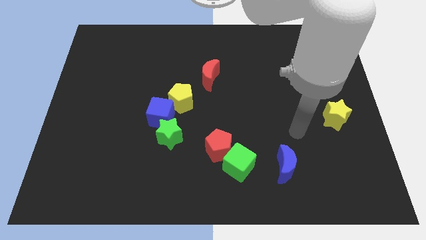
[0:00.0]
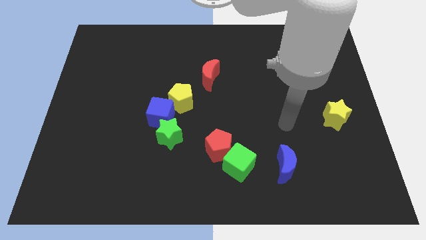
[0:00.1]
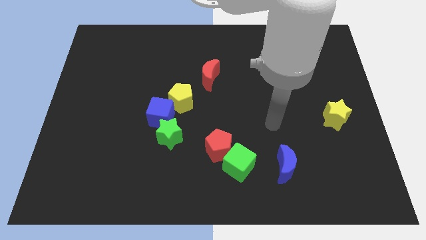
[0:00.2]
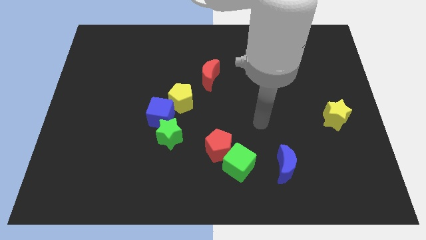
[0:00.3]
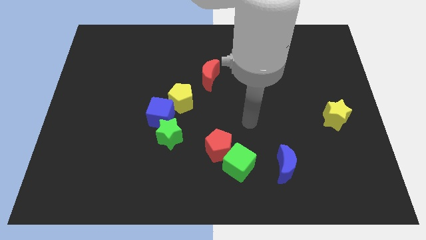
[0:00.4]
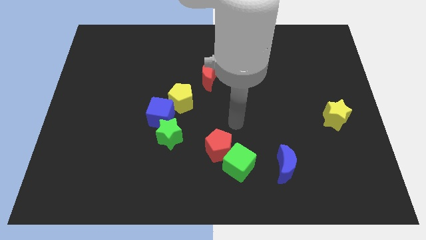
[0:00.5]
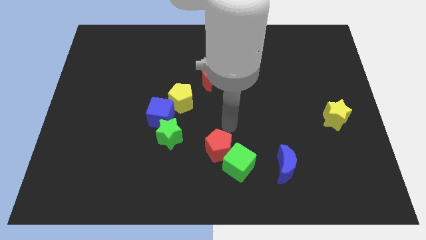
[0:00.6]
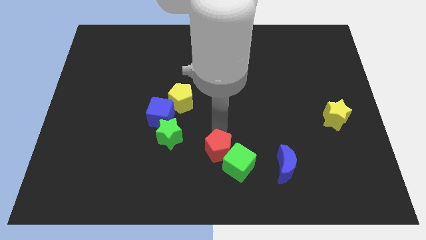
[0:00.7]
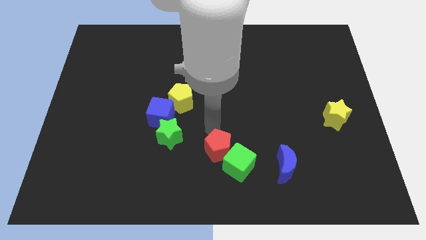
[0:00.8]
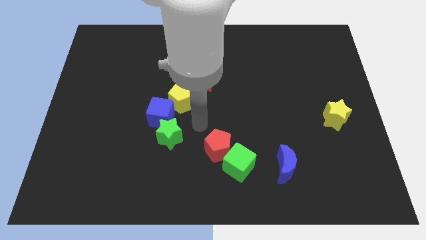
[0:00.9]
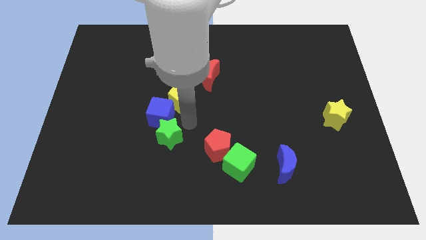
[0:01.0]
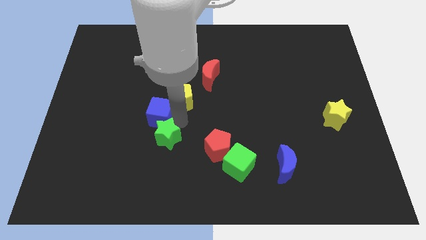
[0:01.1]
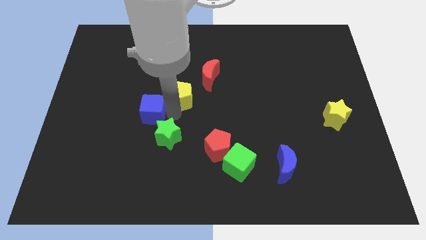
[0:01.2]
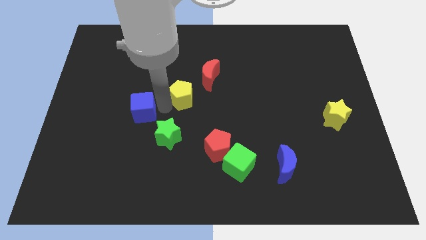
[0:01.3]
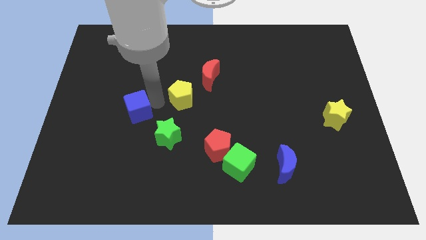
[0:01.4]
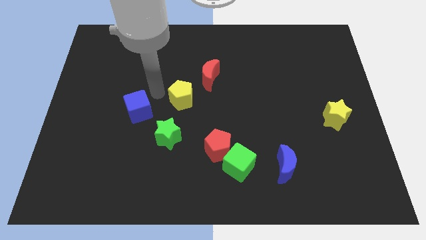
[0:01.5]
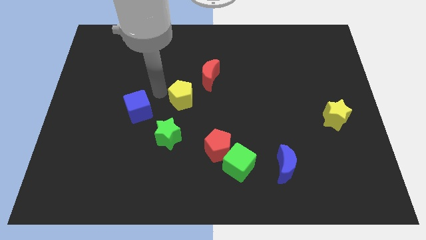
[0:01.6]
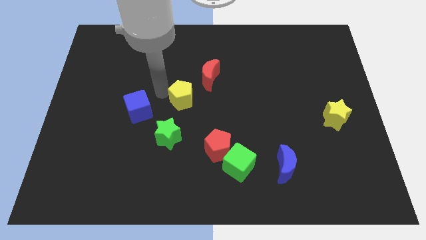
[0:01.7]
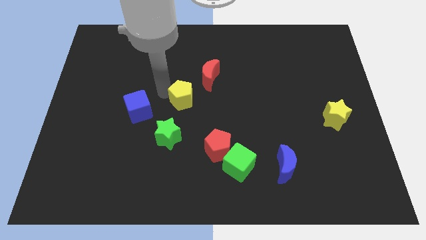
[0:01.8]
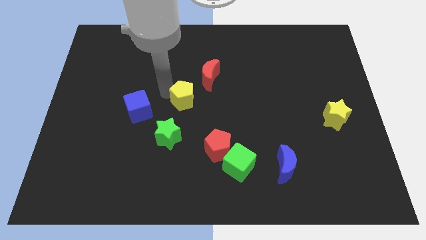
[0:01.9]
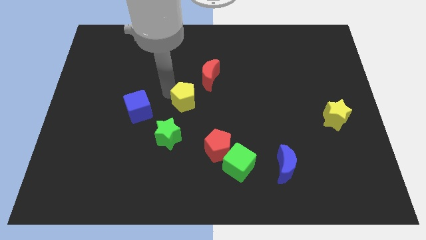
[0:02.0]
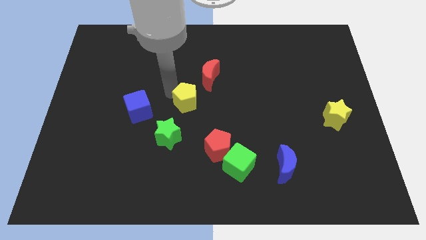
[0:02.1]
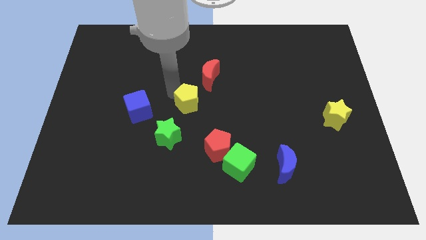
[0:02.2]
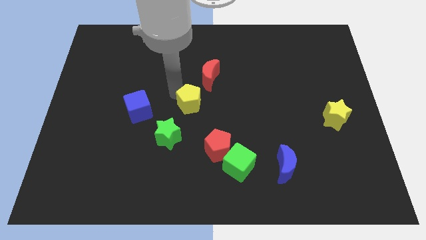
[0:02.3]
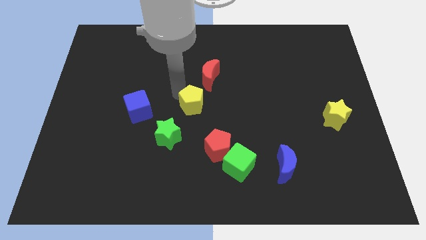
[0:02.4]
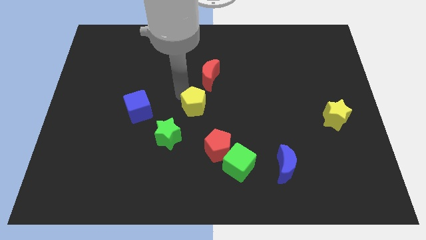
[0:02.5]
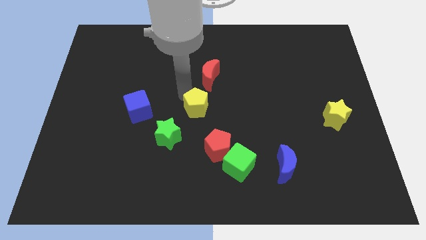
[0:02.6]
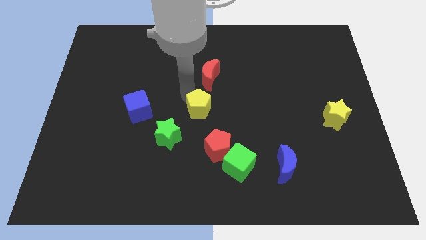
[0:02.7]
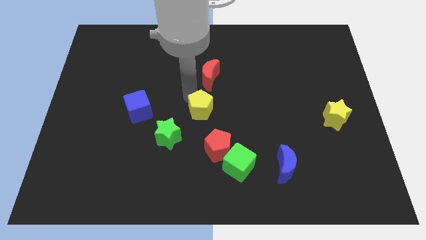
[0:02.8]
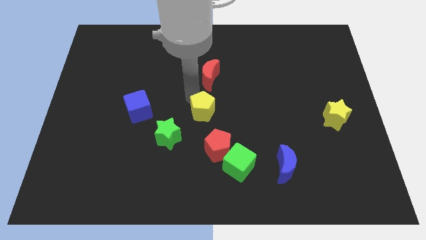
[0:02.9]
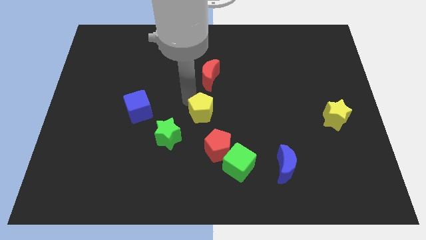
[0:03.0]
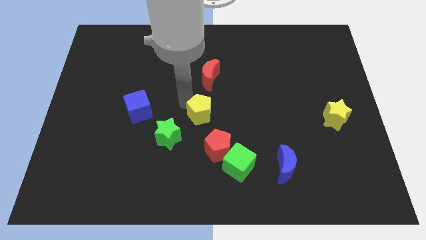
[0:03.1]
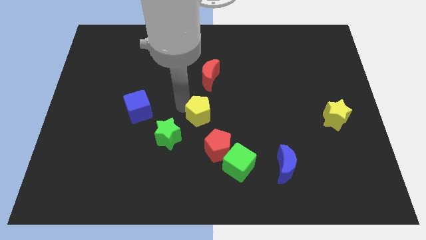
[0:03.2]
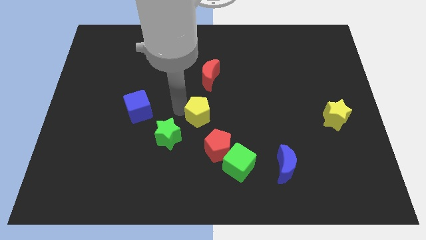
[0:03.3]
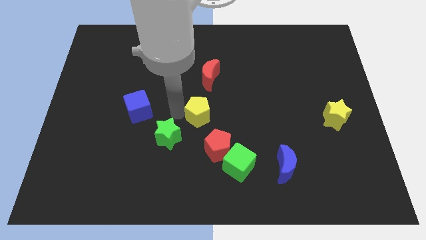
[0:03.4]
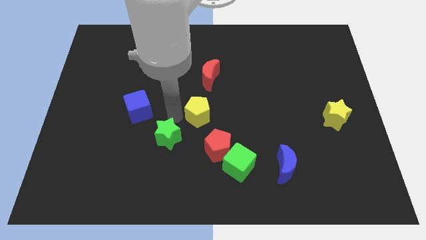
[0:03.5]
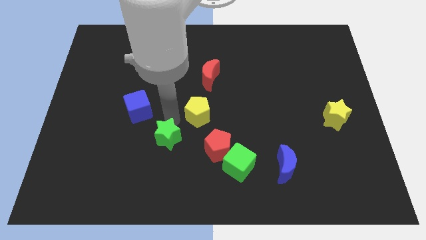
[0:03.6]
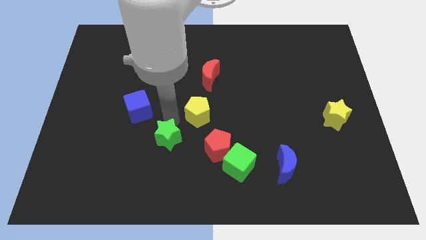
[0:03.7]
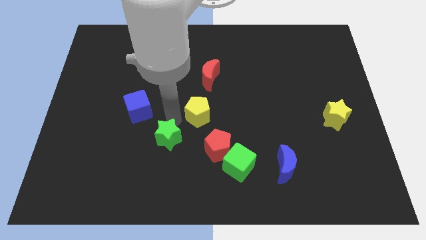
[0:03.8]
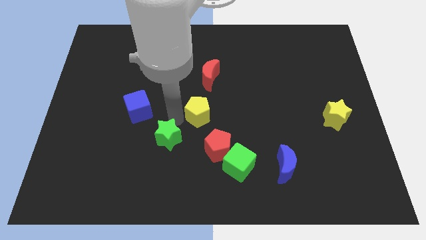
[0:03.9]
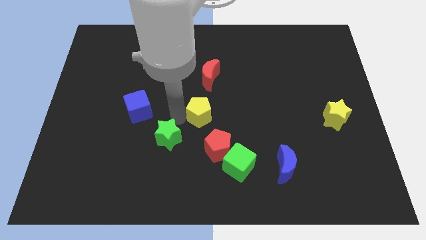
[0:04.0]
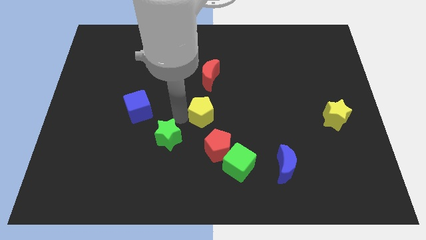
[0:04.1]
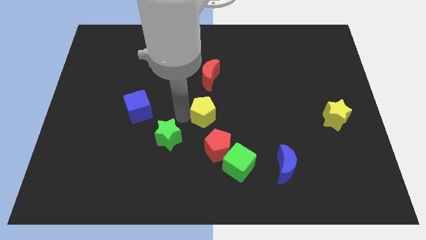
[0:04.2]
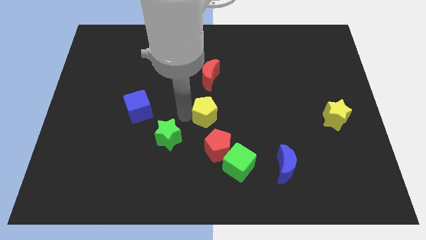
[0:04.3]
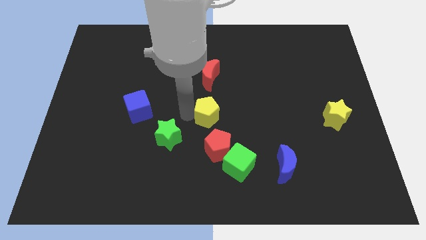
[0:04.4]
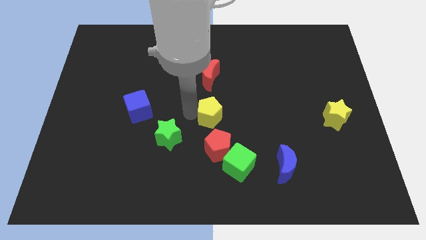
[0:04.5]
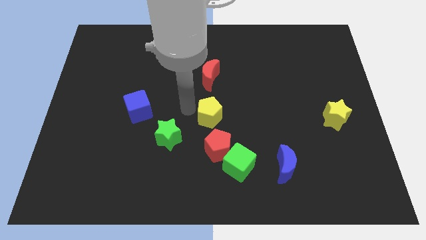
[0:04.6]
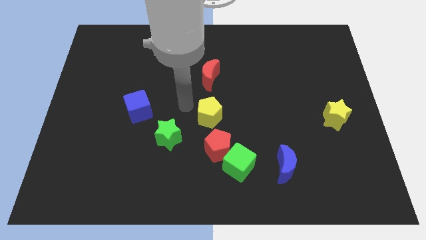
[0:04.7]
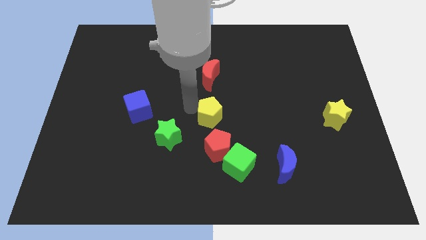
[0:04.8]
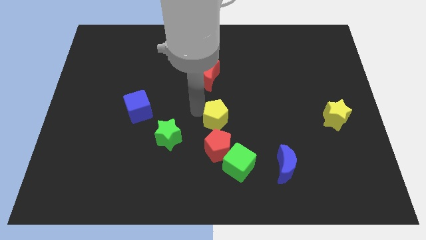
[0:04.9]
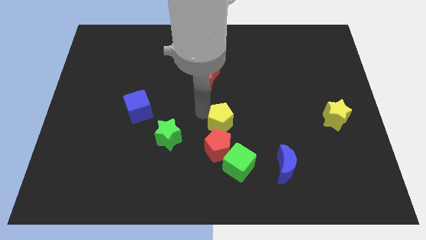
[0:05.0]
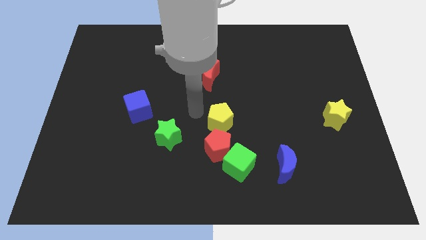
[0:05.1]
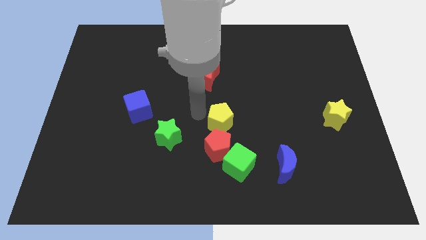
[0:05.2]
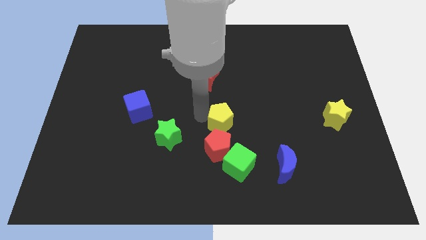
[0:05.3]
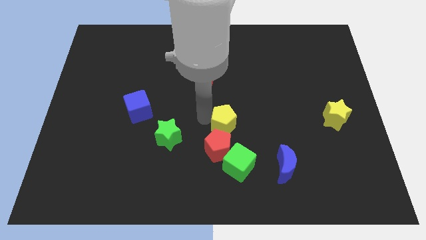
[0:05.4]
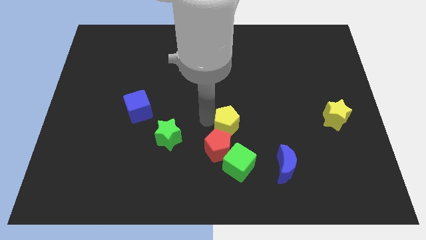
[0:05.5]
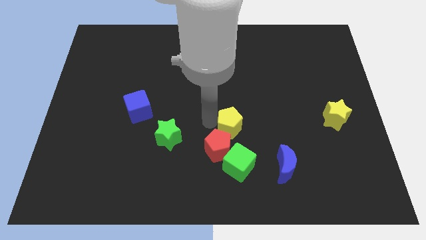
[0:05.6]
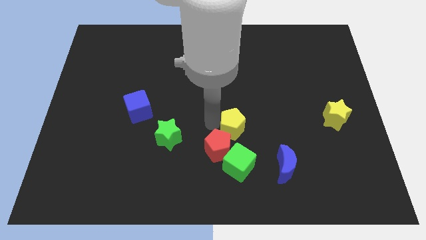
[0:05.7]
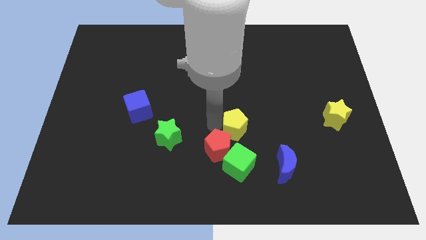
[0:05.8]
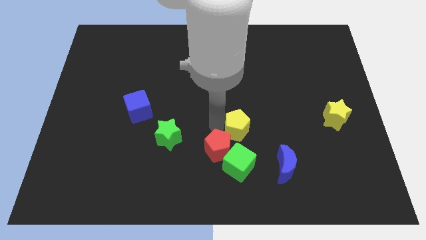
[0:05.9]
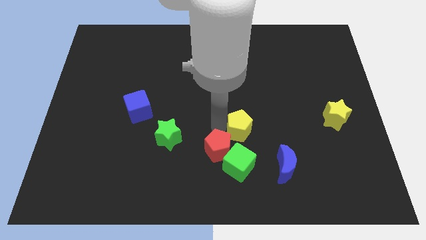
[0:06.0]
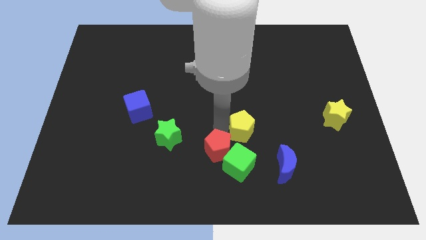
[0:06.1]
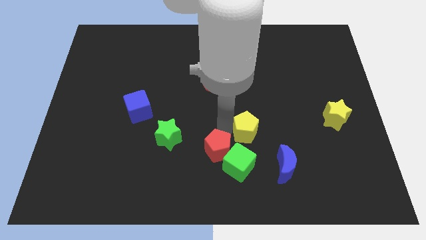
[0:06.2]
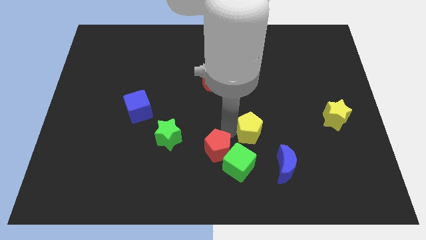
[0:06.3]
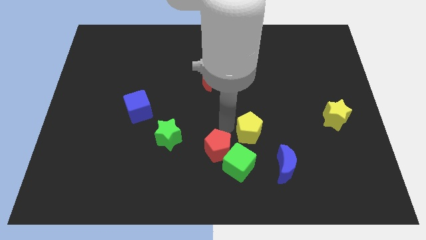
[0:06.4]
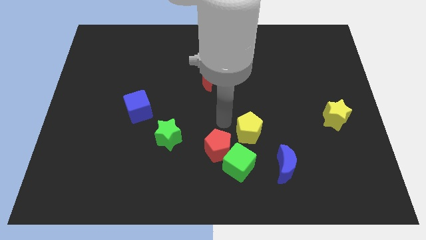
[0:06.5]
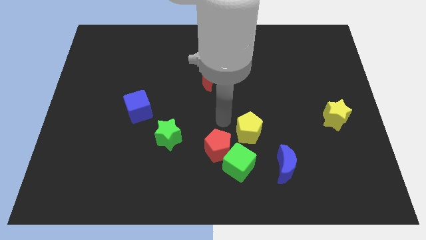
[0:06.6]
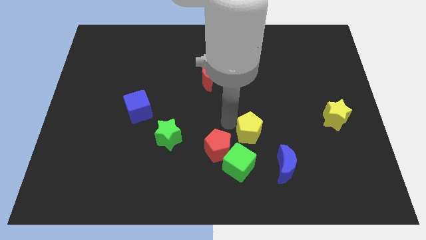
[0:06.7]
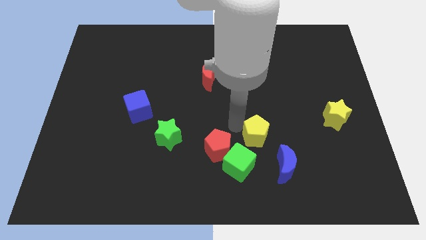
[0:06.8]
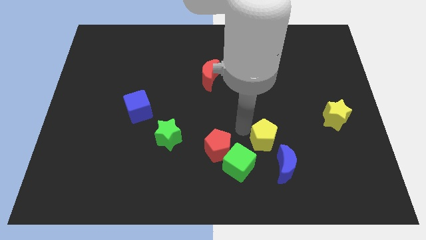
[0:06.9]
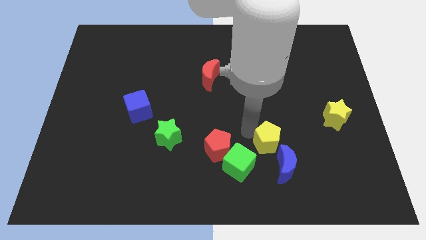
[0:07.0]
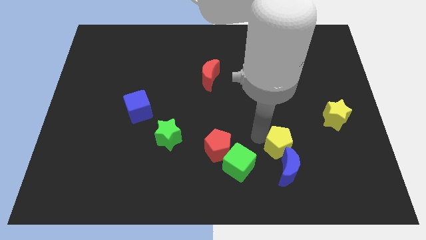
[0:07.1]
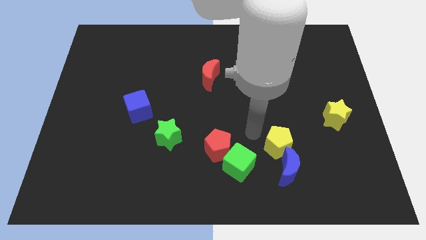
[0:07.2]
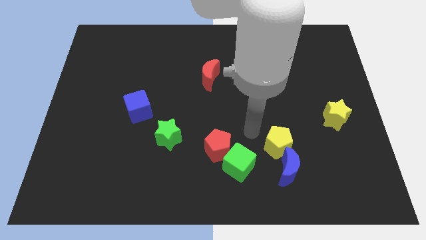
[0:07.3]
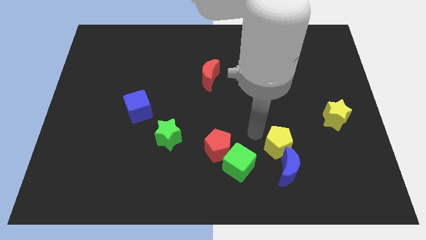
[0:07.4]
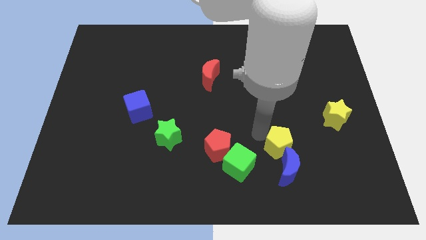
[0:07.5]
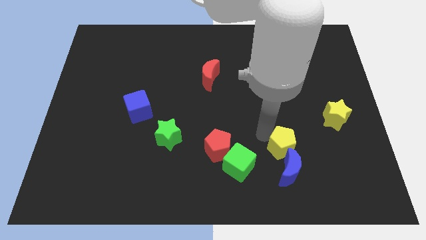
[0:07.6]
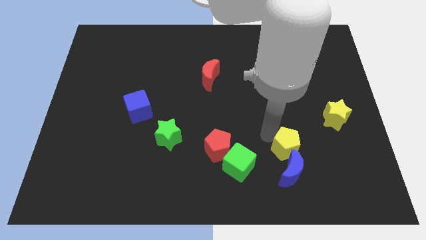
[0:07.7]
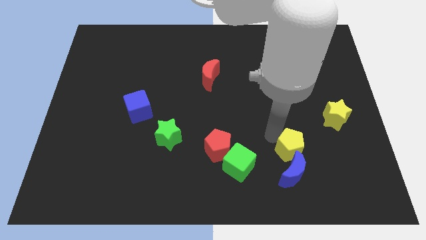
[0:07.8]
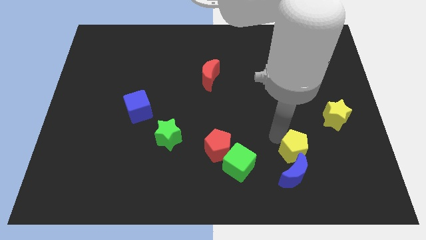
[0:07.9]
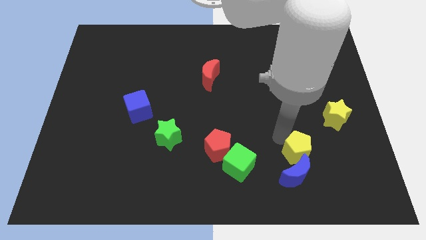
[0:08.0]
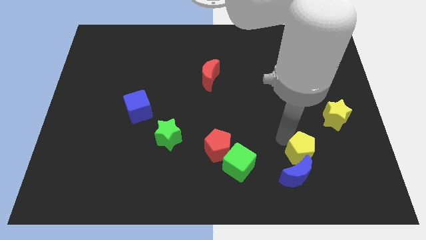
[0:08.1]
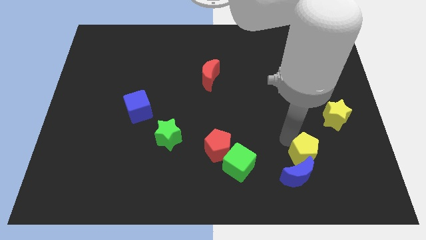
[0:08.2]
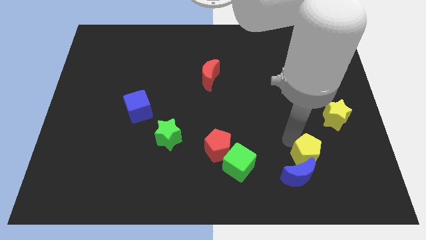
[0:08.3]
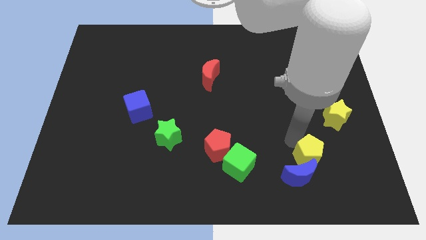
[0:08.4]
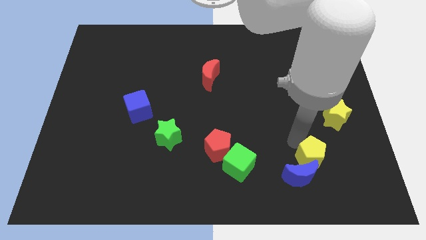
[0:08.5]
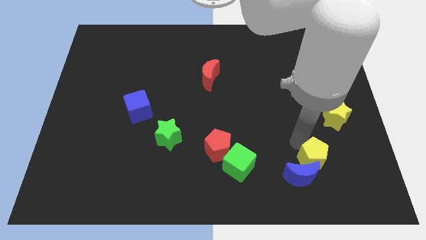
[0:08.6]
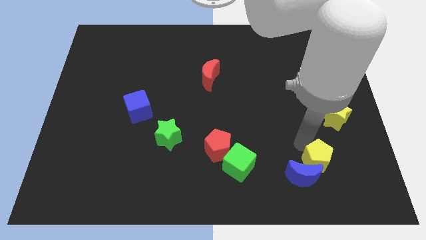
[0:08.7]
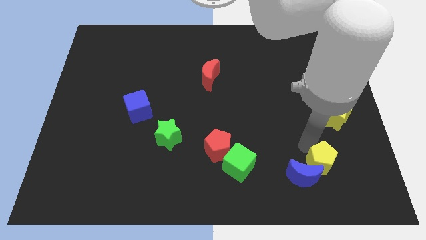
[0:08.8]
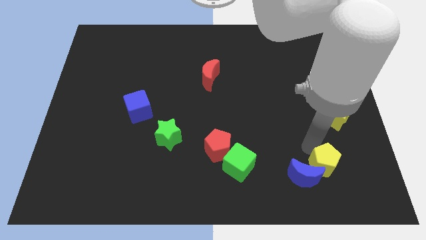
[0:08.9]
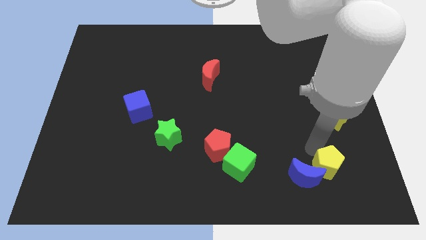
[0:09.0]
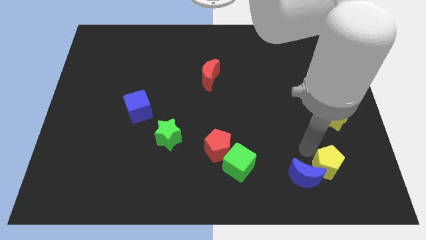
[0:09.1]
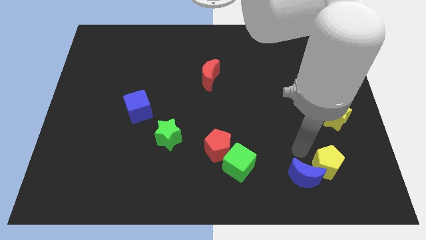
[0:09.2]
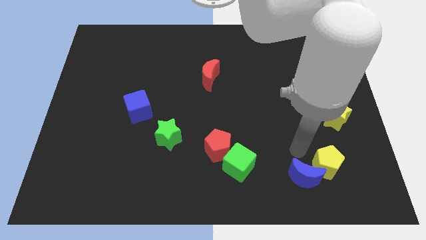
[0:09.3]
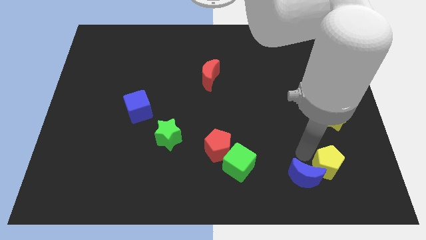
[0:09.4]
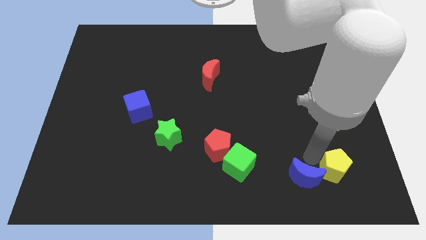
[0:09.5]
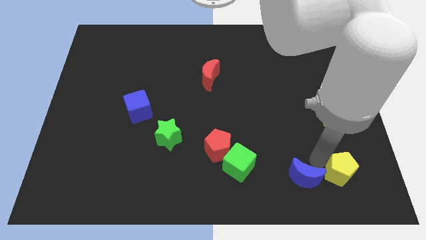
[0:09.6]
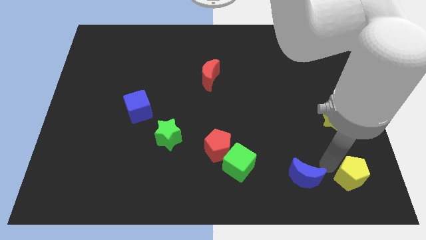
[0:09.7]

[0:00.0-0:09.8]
push the yellow pentagon to the bottom right of the board
